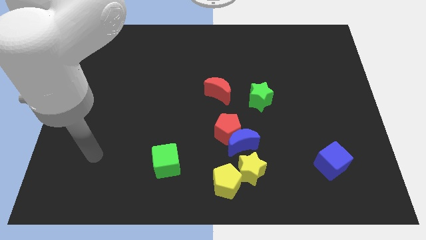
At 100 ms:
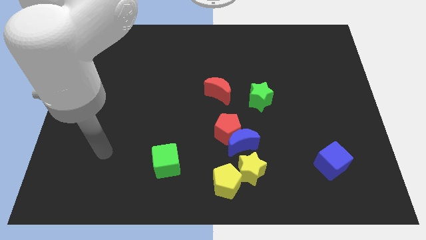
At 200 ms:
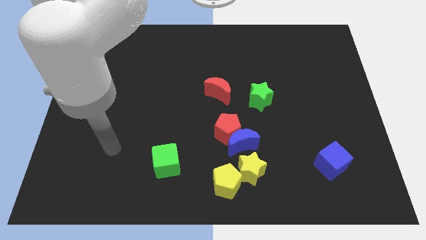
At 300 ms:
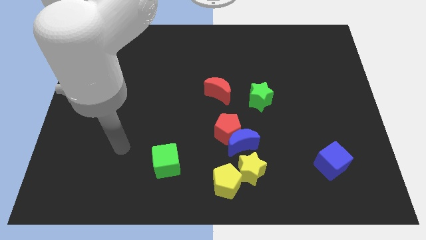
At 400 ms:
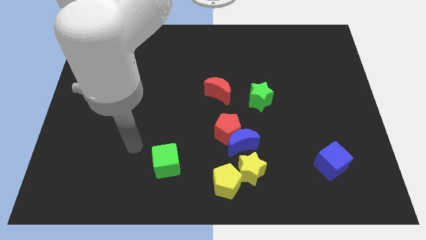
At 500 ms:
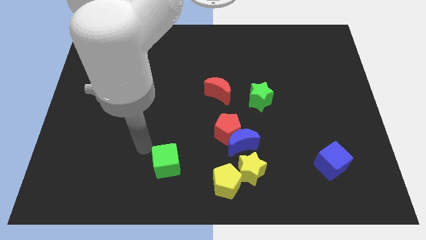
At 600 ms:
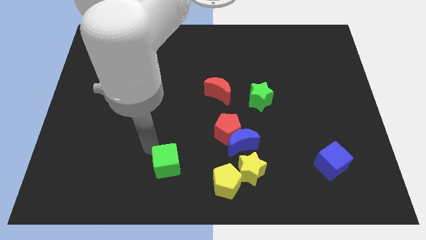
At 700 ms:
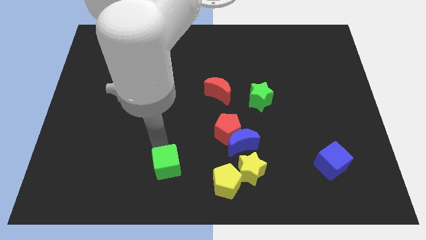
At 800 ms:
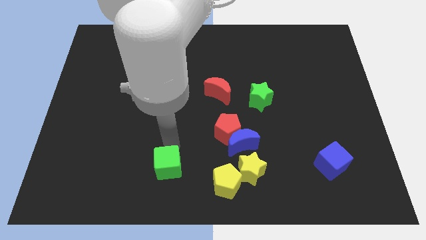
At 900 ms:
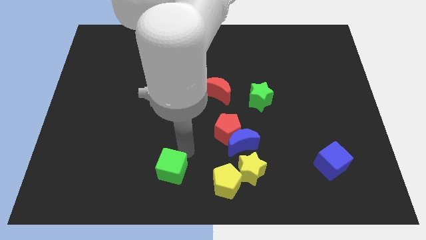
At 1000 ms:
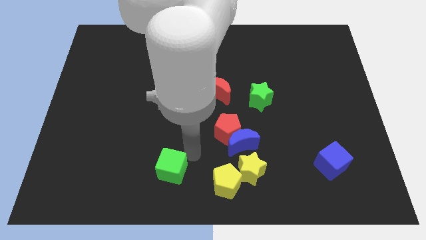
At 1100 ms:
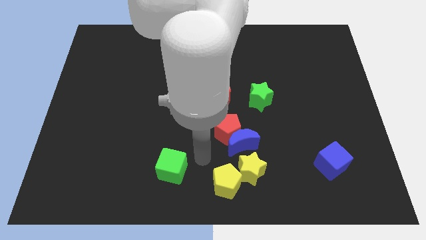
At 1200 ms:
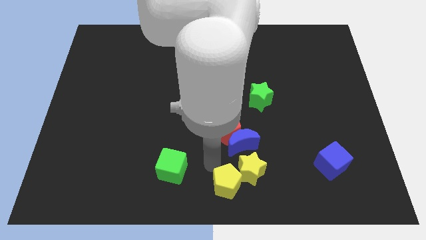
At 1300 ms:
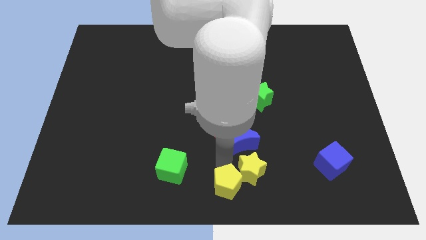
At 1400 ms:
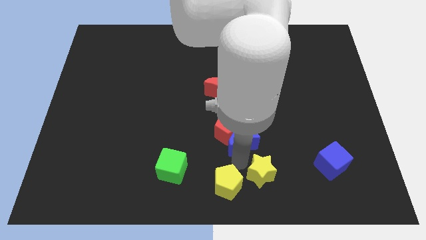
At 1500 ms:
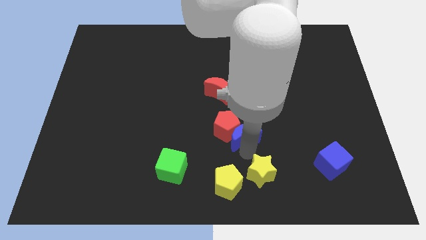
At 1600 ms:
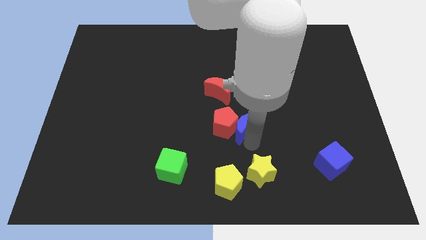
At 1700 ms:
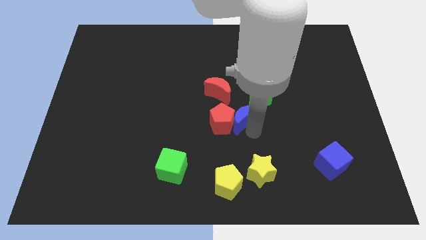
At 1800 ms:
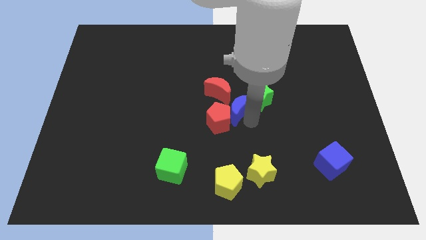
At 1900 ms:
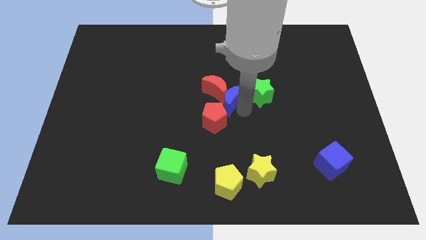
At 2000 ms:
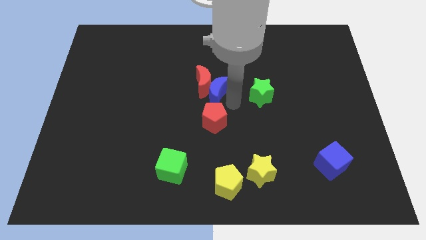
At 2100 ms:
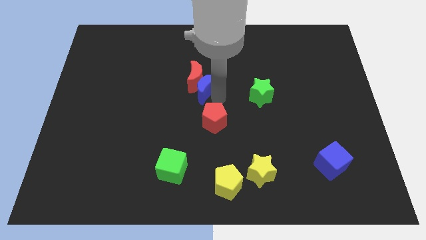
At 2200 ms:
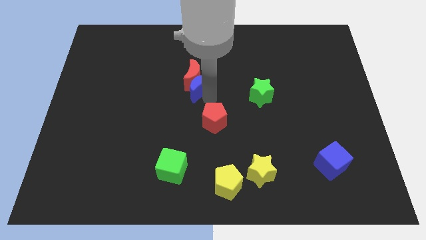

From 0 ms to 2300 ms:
move the red pentagon away from the blue moon

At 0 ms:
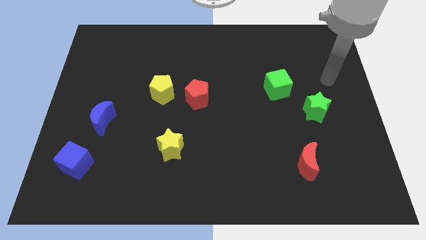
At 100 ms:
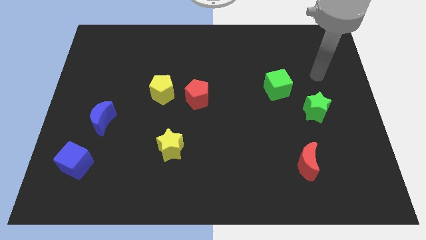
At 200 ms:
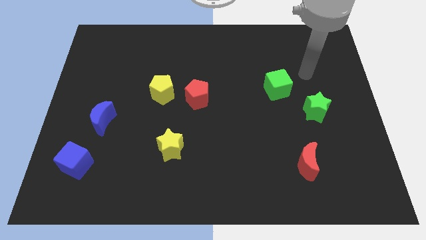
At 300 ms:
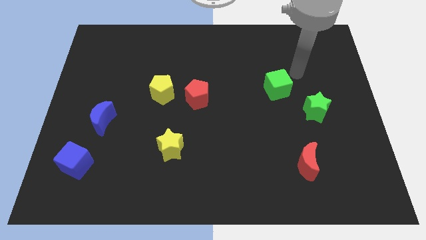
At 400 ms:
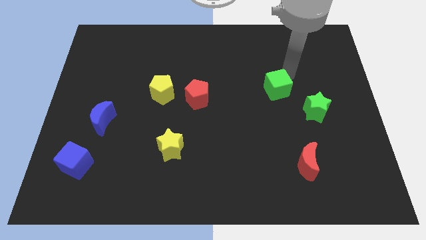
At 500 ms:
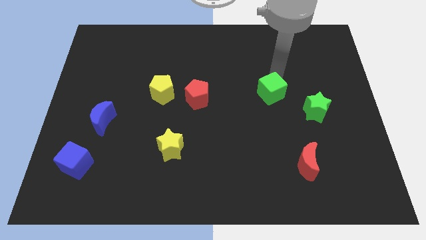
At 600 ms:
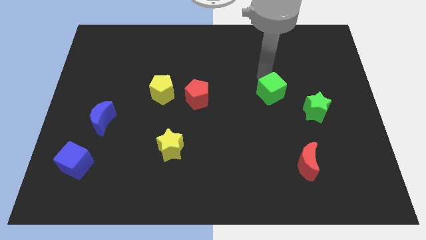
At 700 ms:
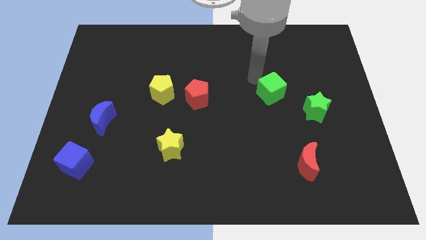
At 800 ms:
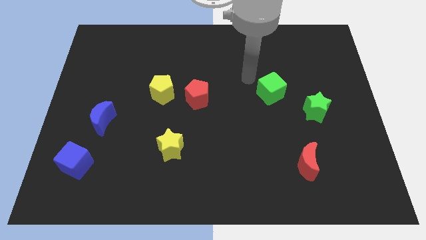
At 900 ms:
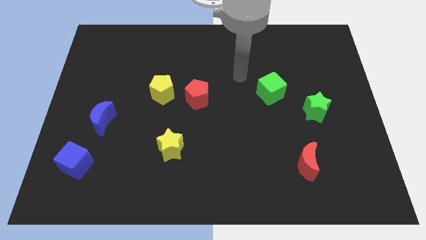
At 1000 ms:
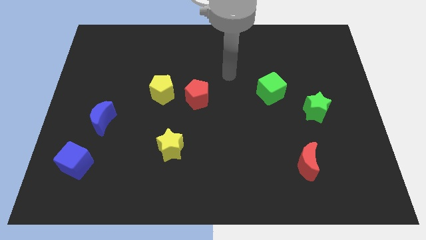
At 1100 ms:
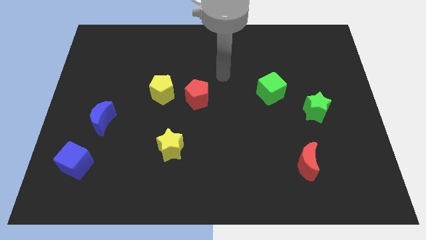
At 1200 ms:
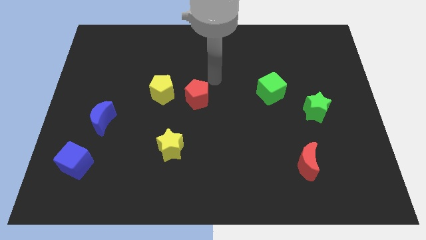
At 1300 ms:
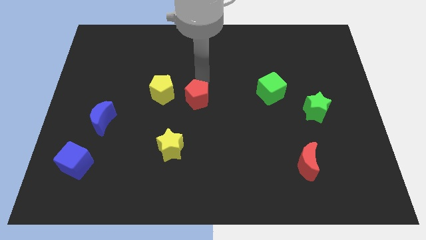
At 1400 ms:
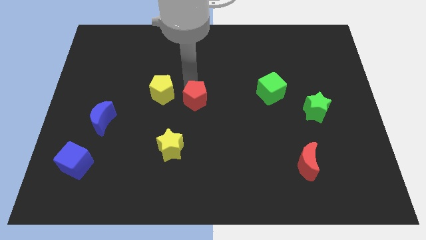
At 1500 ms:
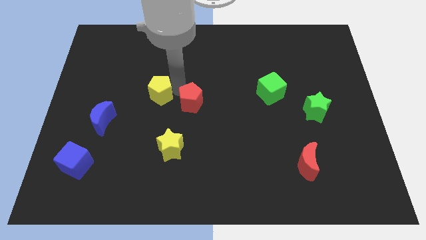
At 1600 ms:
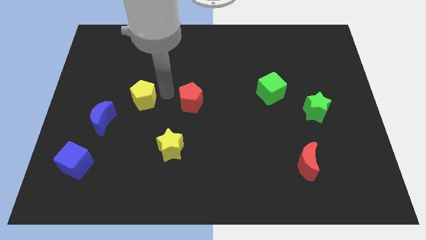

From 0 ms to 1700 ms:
separate the red pentagon from the yellow pentagon

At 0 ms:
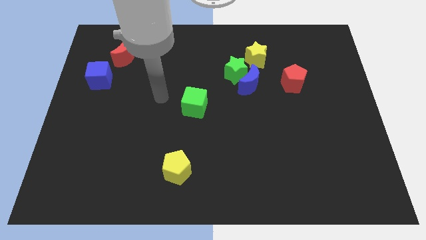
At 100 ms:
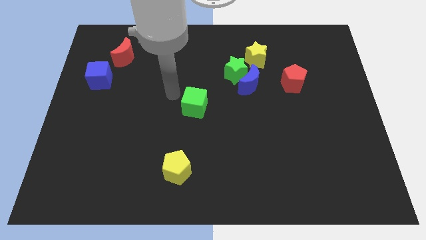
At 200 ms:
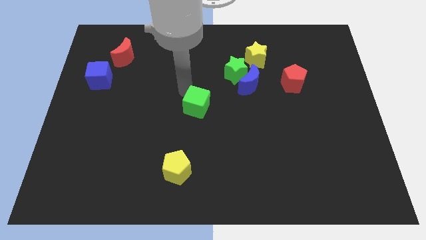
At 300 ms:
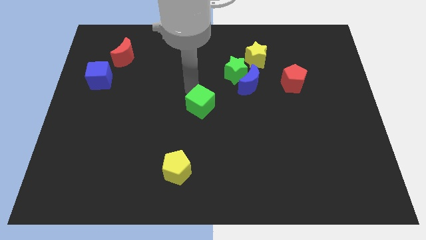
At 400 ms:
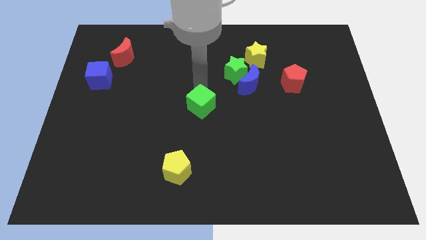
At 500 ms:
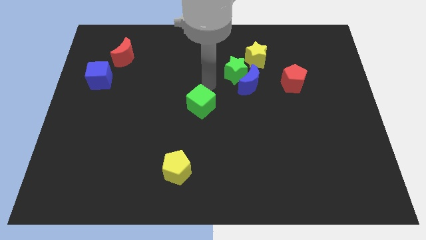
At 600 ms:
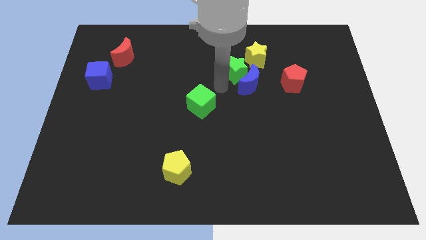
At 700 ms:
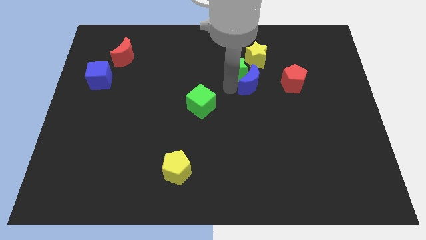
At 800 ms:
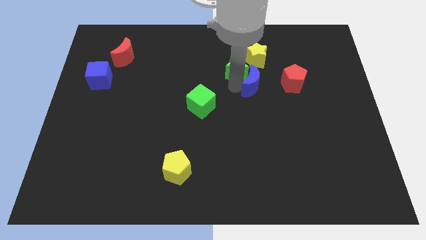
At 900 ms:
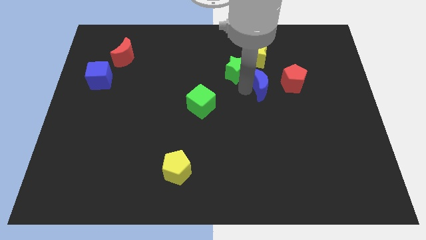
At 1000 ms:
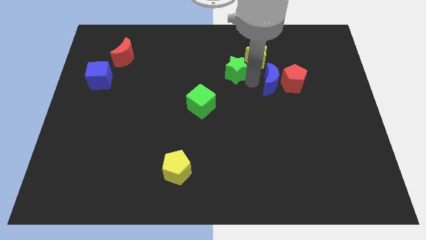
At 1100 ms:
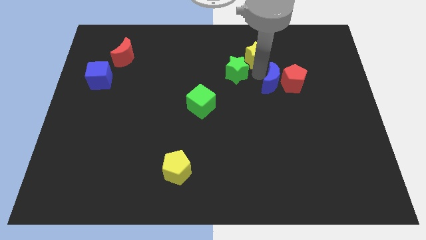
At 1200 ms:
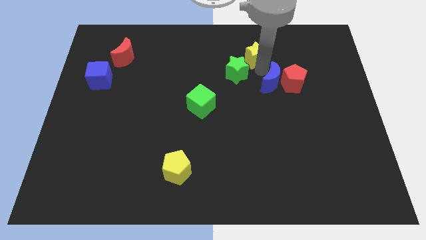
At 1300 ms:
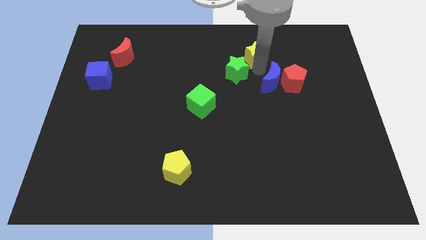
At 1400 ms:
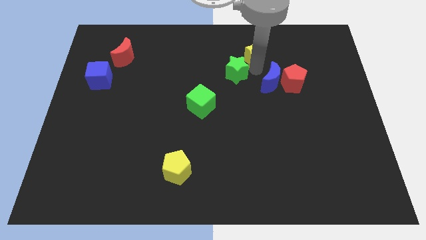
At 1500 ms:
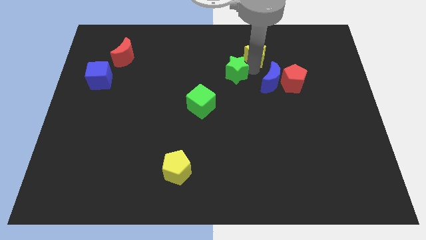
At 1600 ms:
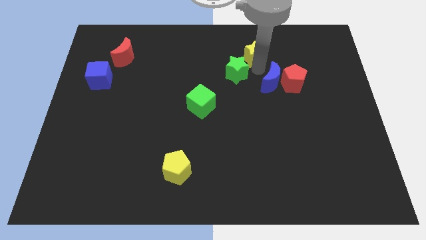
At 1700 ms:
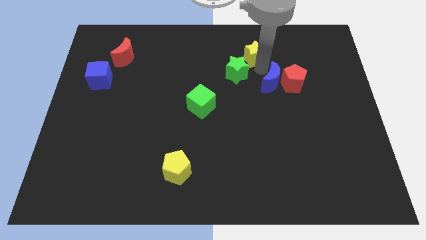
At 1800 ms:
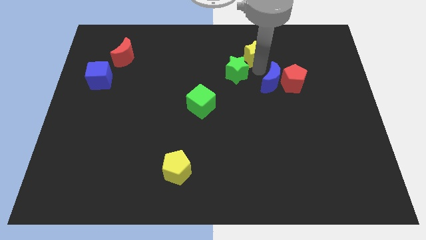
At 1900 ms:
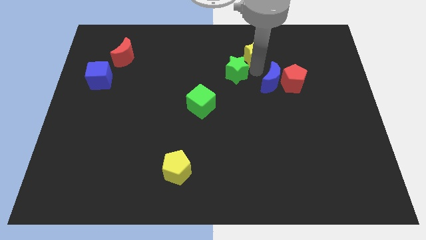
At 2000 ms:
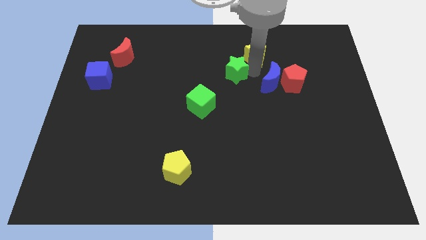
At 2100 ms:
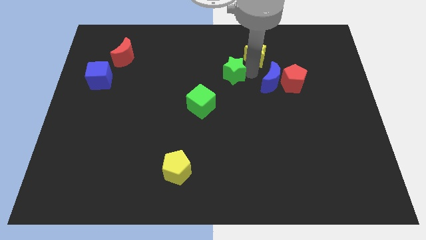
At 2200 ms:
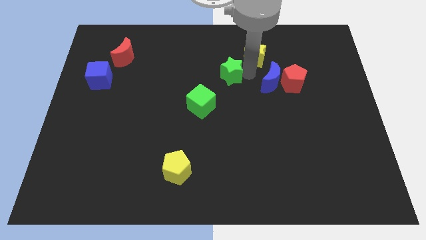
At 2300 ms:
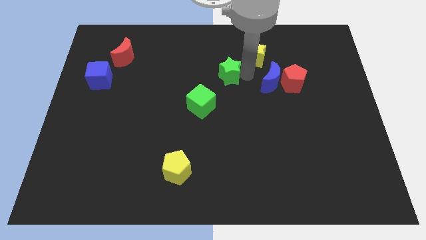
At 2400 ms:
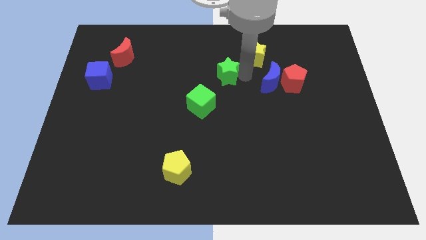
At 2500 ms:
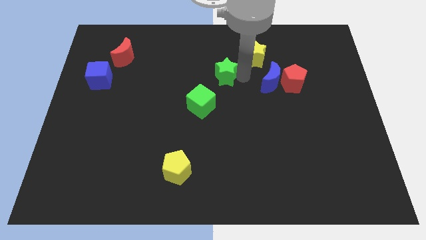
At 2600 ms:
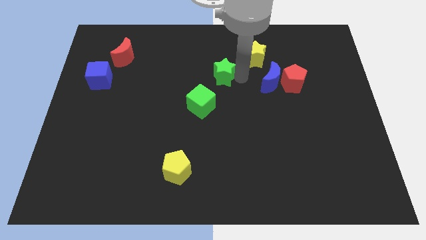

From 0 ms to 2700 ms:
move the green star away from the blue moon and yellow star

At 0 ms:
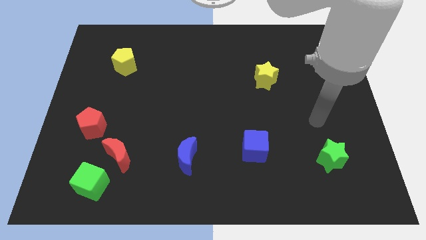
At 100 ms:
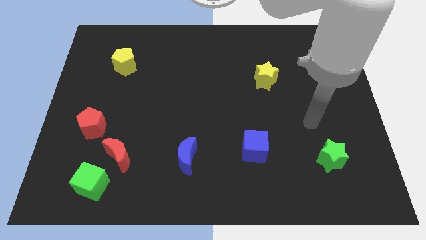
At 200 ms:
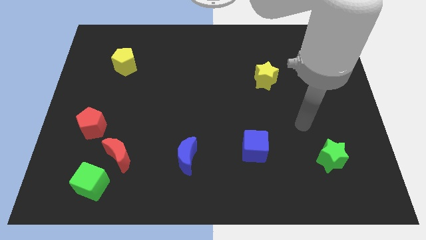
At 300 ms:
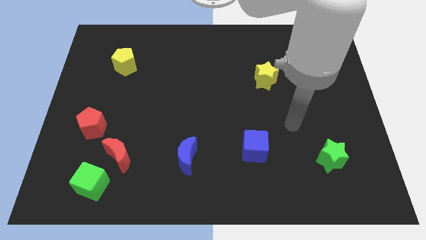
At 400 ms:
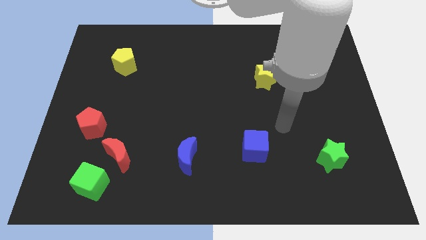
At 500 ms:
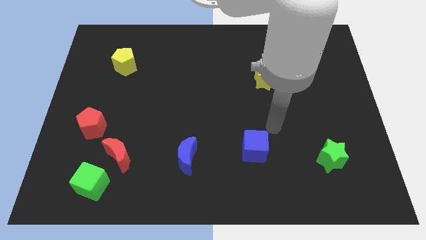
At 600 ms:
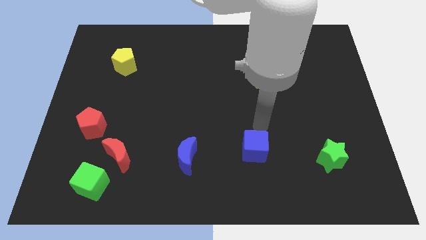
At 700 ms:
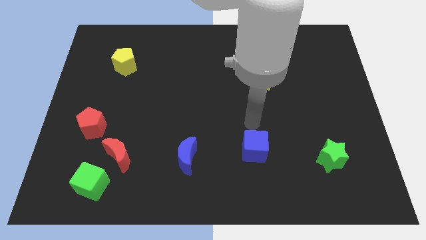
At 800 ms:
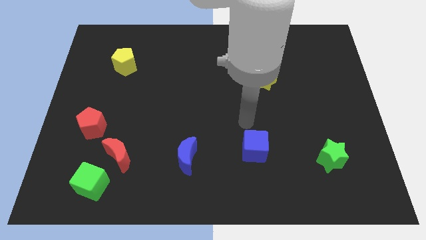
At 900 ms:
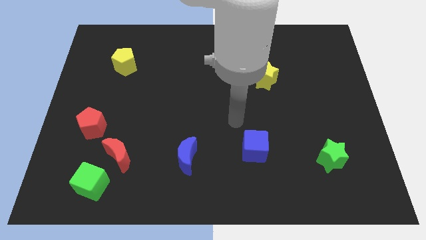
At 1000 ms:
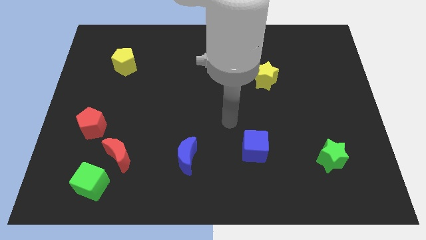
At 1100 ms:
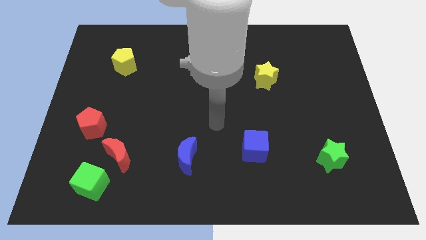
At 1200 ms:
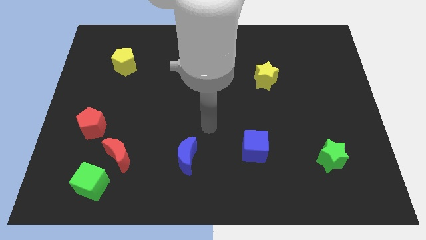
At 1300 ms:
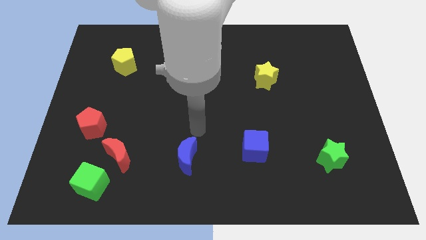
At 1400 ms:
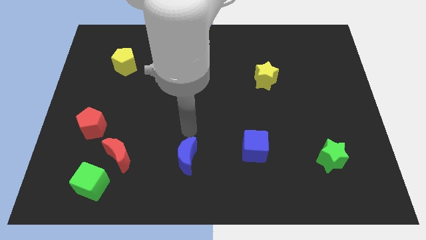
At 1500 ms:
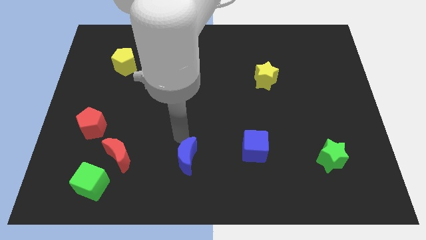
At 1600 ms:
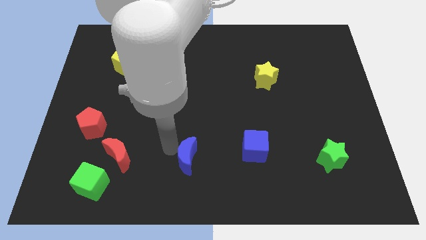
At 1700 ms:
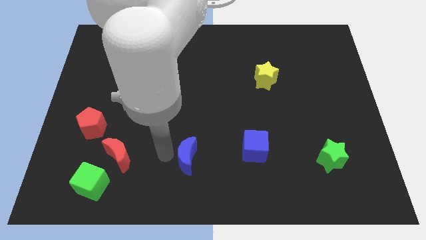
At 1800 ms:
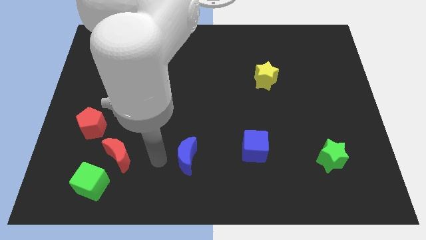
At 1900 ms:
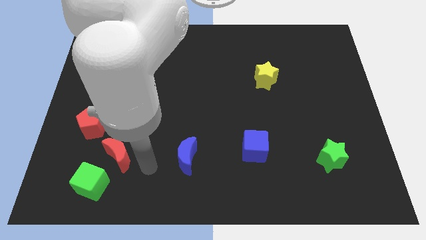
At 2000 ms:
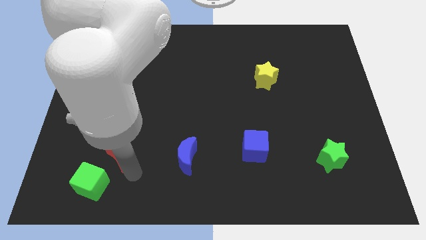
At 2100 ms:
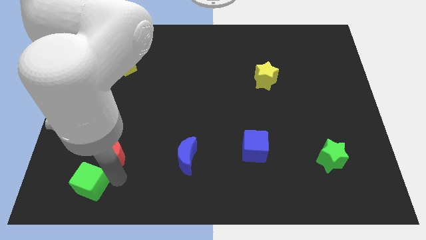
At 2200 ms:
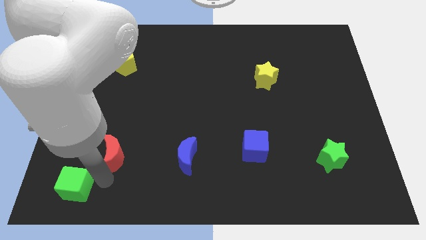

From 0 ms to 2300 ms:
pull the red moon apart from the green cube

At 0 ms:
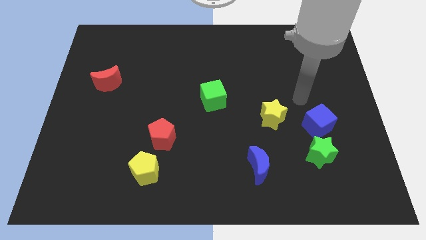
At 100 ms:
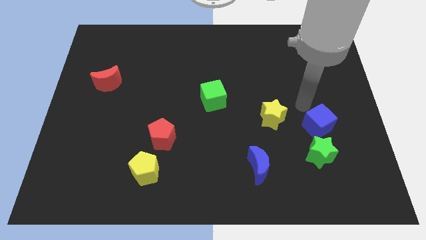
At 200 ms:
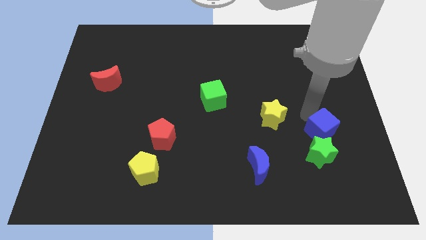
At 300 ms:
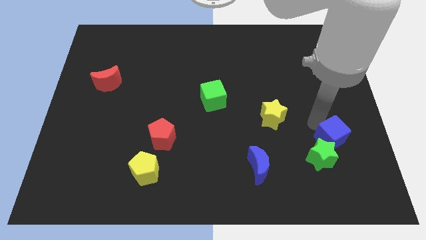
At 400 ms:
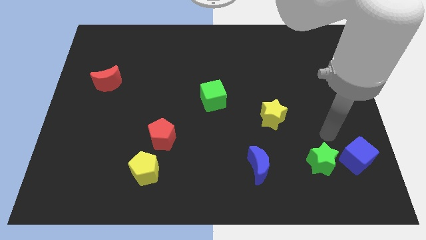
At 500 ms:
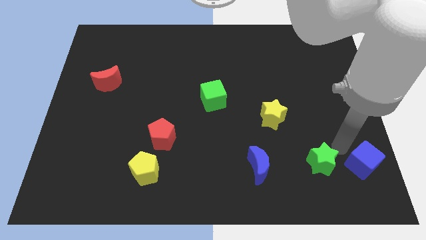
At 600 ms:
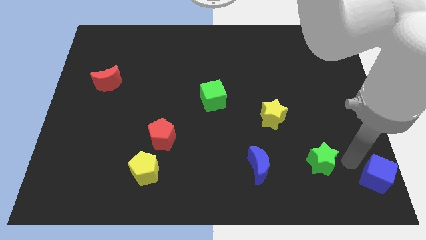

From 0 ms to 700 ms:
move the green star away from the blue cube
